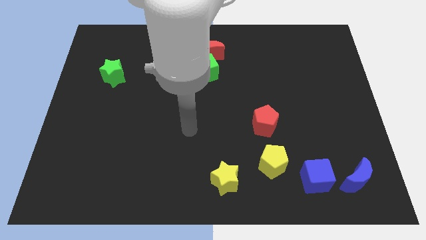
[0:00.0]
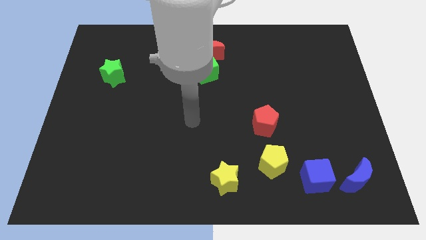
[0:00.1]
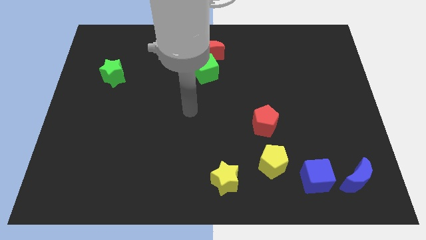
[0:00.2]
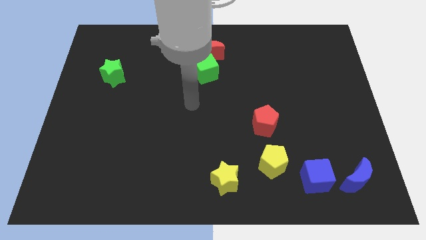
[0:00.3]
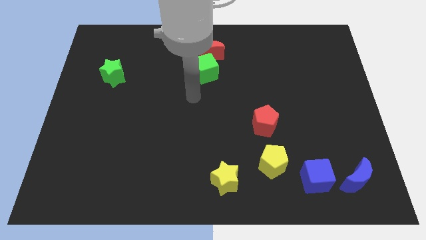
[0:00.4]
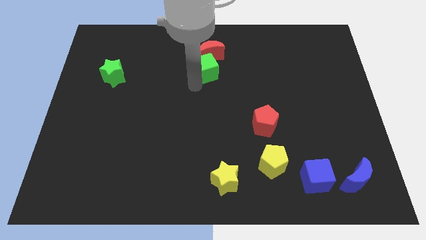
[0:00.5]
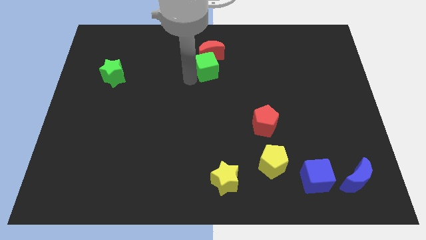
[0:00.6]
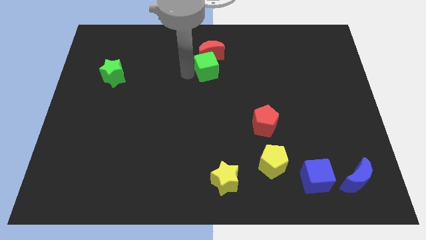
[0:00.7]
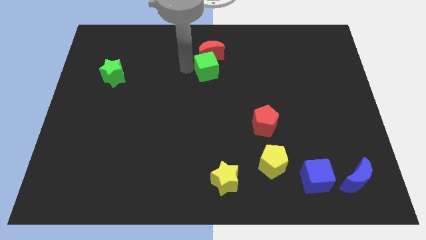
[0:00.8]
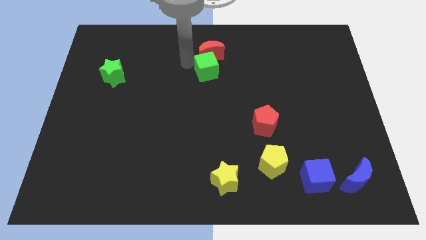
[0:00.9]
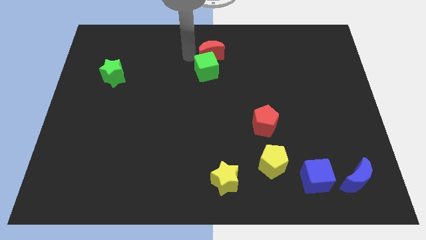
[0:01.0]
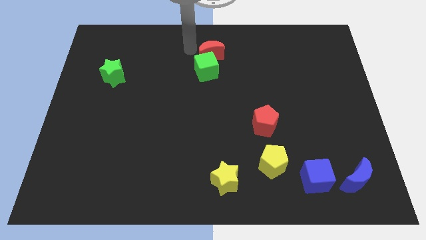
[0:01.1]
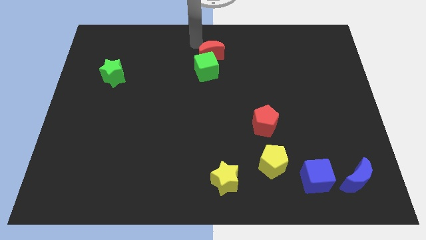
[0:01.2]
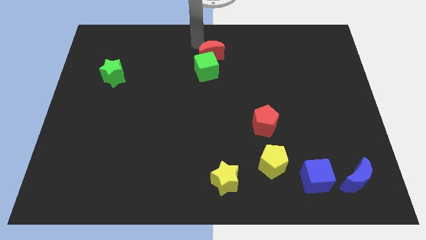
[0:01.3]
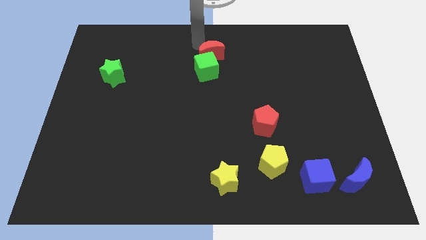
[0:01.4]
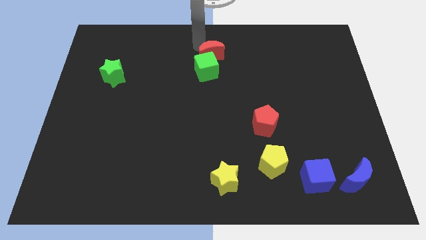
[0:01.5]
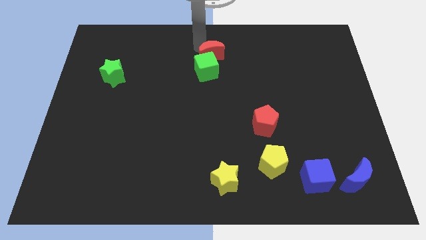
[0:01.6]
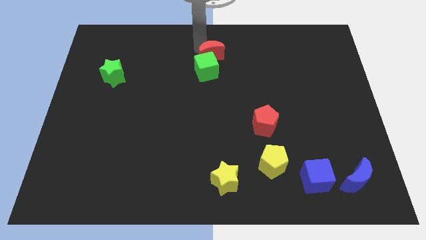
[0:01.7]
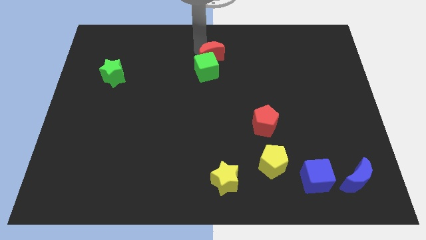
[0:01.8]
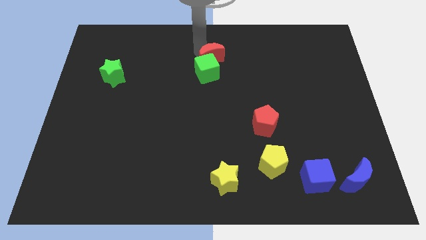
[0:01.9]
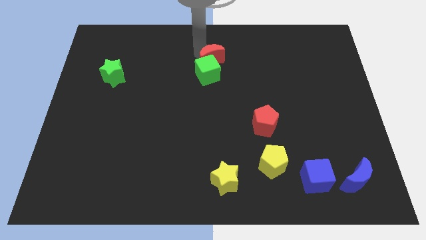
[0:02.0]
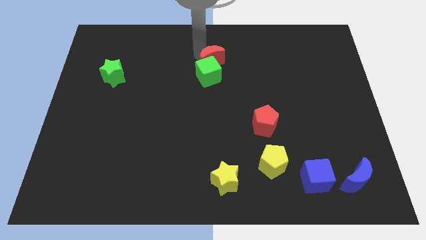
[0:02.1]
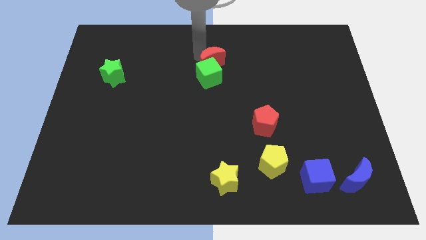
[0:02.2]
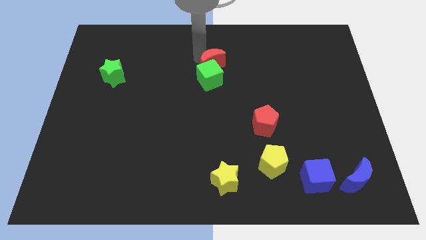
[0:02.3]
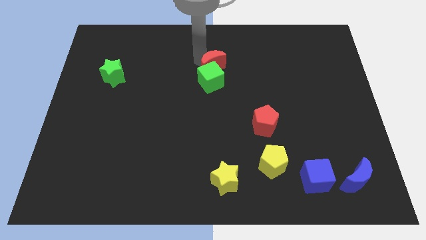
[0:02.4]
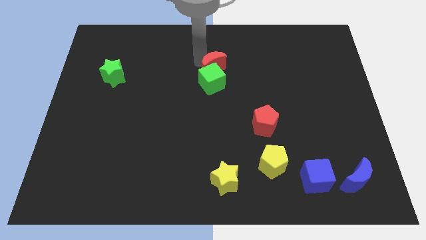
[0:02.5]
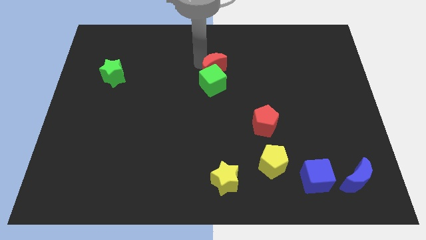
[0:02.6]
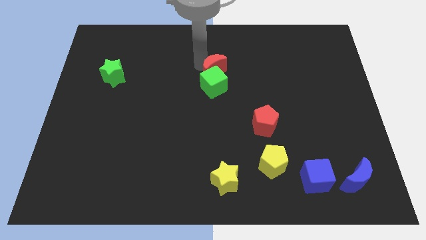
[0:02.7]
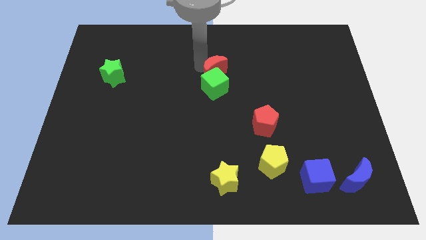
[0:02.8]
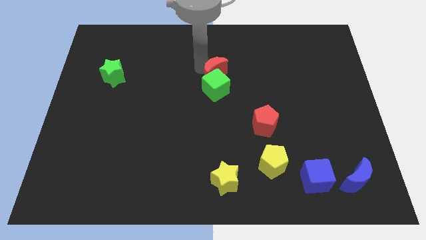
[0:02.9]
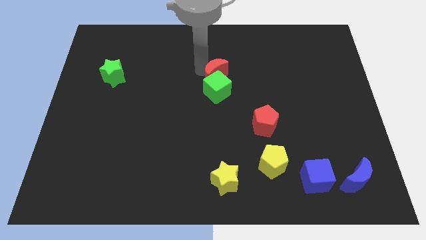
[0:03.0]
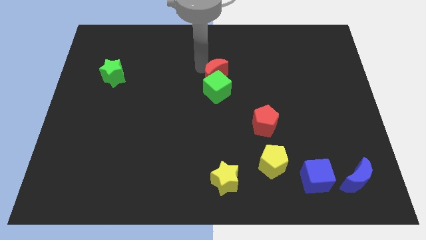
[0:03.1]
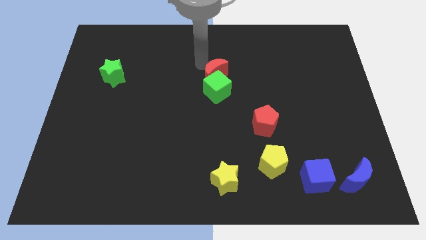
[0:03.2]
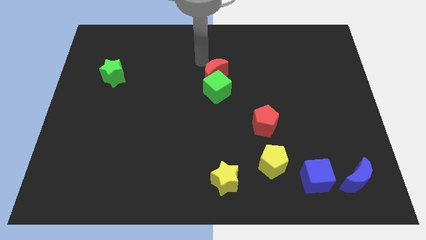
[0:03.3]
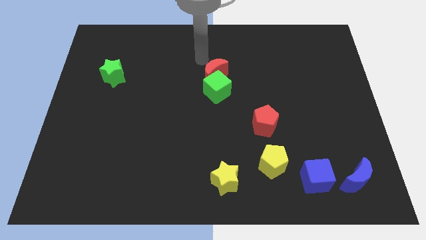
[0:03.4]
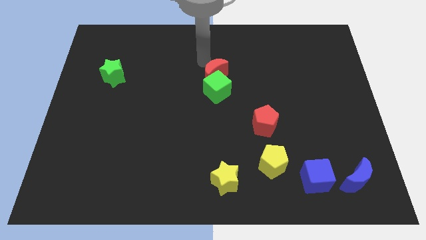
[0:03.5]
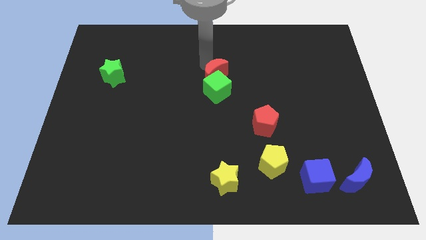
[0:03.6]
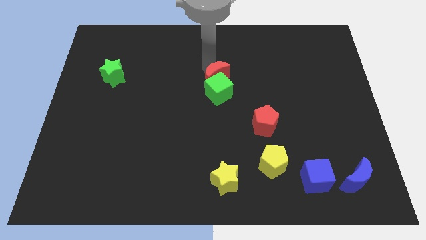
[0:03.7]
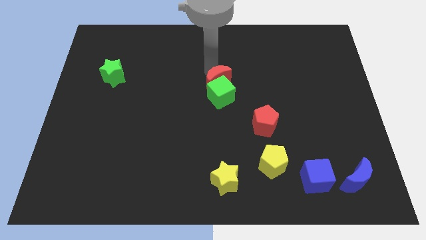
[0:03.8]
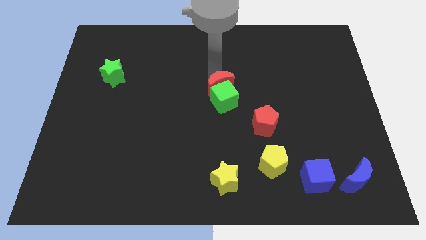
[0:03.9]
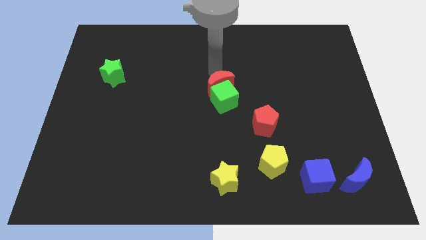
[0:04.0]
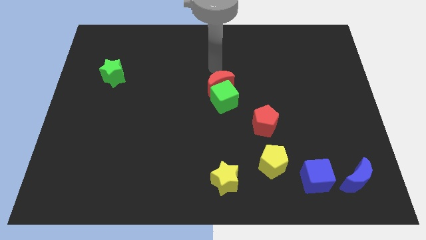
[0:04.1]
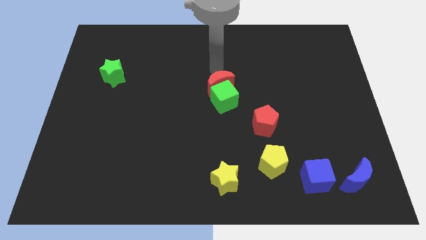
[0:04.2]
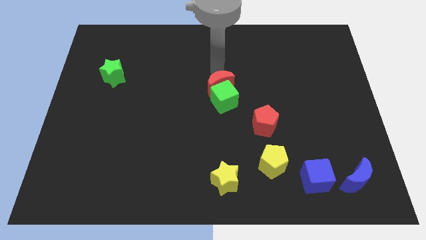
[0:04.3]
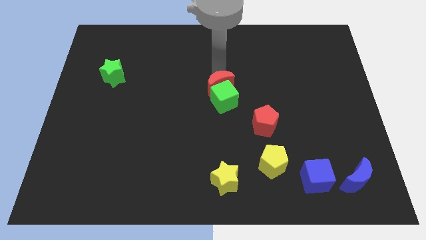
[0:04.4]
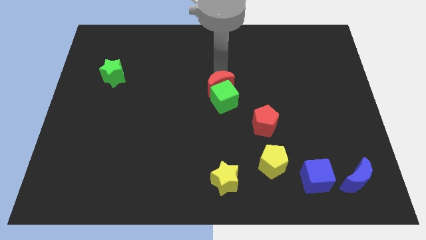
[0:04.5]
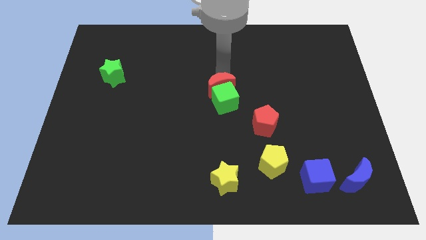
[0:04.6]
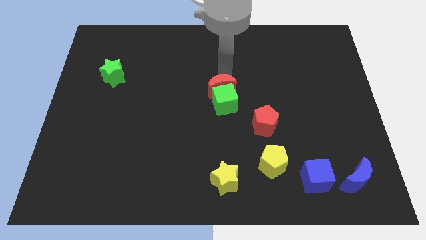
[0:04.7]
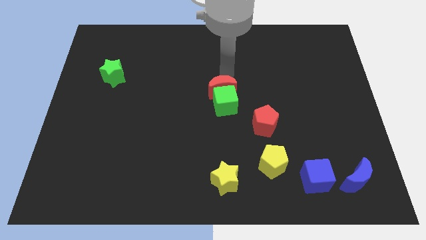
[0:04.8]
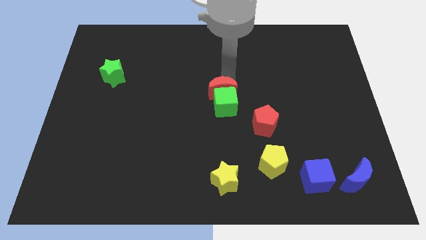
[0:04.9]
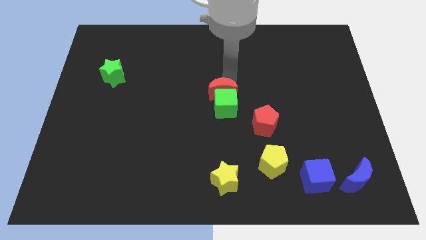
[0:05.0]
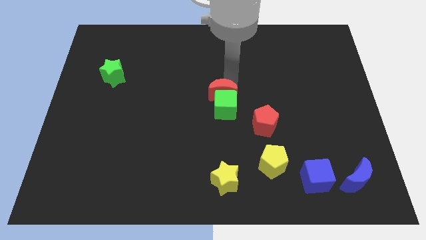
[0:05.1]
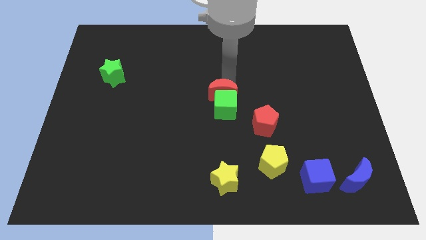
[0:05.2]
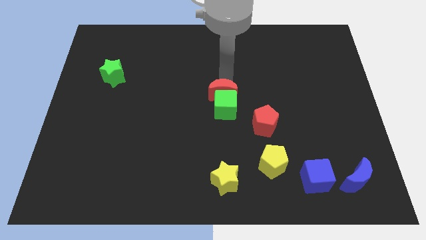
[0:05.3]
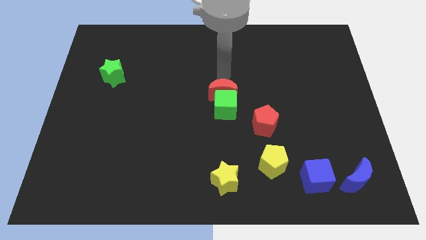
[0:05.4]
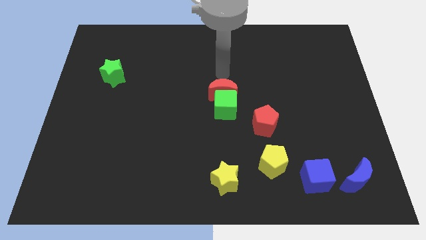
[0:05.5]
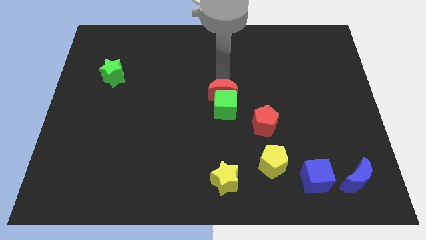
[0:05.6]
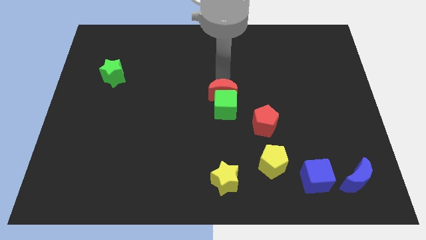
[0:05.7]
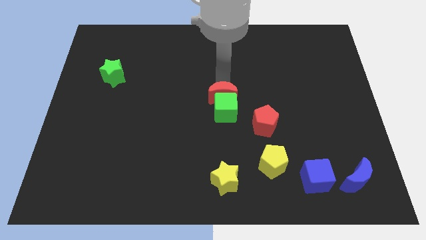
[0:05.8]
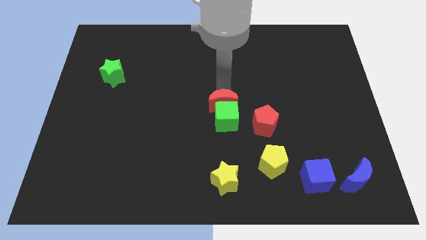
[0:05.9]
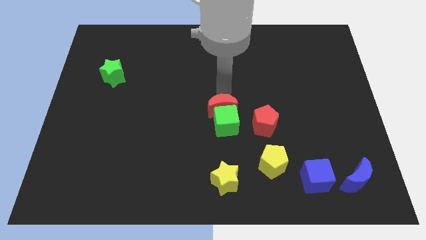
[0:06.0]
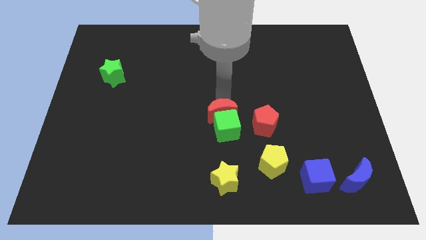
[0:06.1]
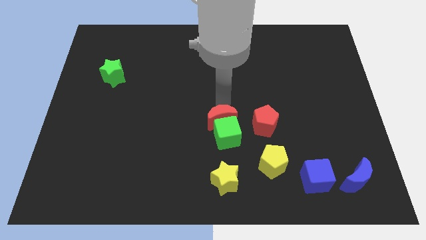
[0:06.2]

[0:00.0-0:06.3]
push the red moon downwards

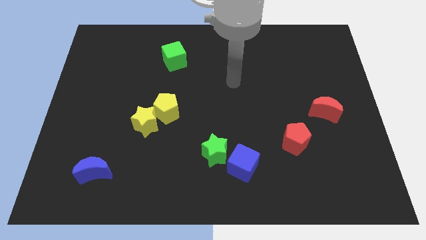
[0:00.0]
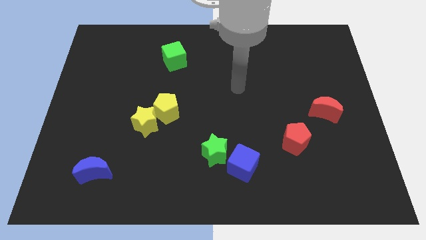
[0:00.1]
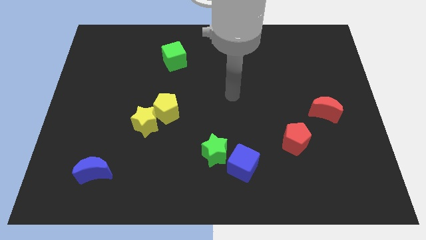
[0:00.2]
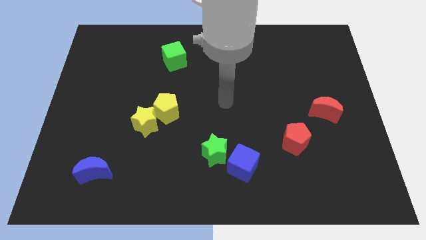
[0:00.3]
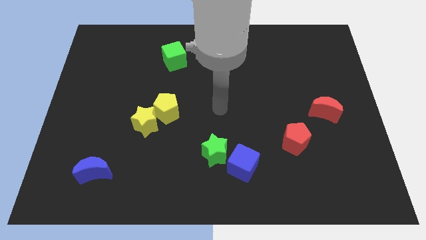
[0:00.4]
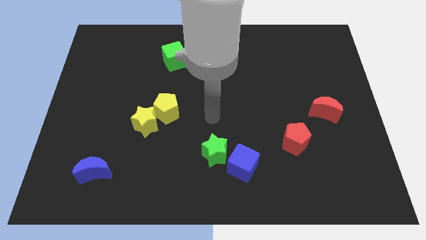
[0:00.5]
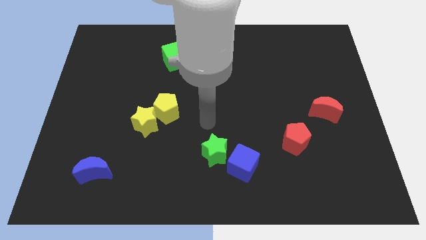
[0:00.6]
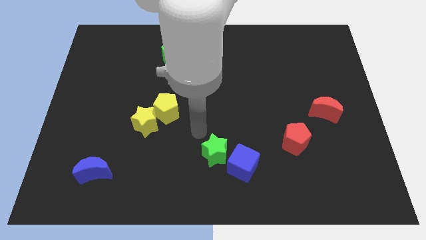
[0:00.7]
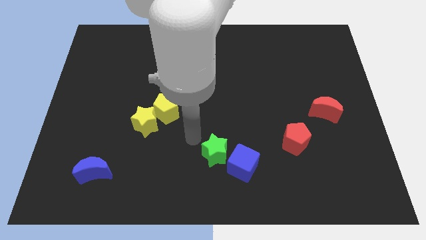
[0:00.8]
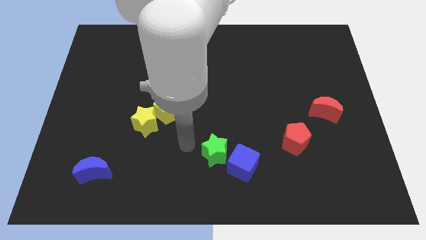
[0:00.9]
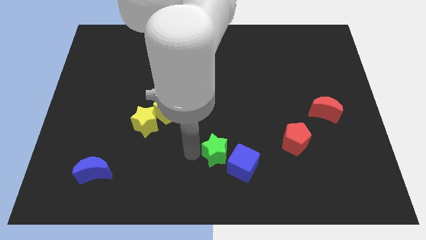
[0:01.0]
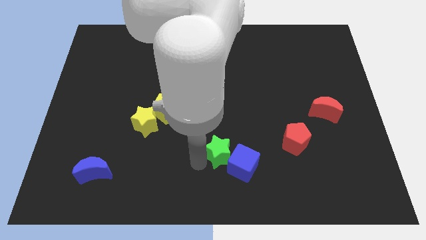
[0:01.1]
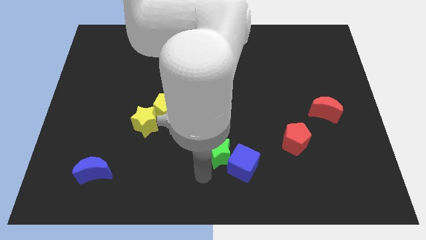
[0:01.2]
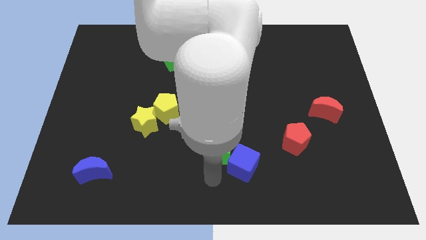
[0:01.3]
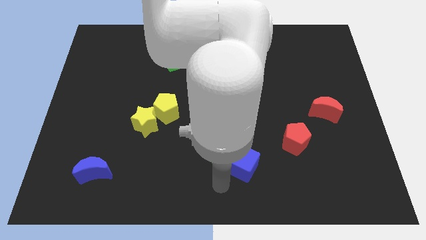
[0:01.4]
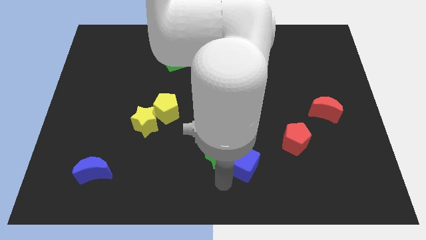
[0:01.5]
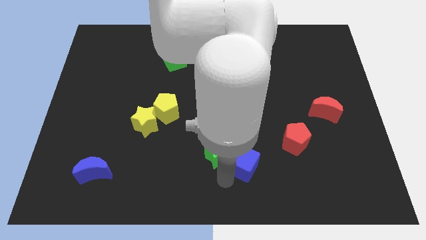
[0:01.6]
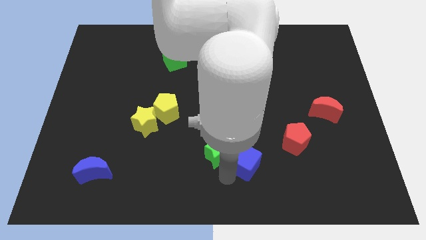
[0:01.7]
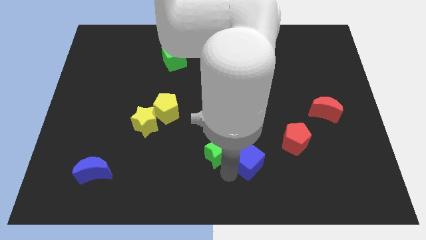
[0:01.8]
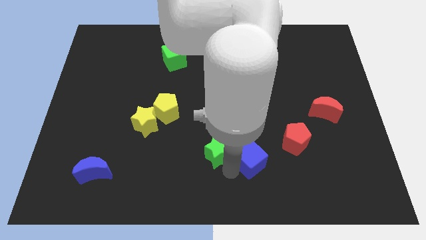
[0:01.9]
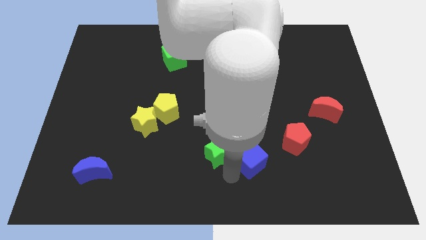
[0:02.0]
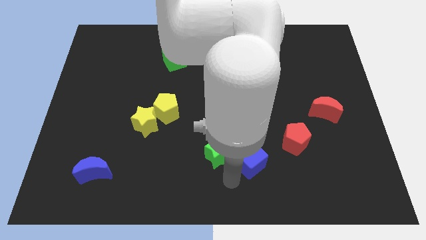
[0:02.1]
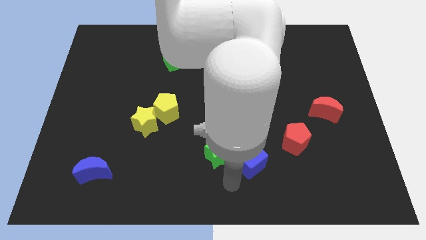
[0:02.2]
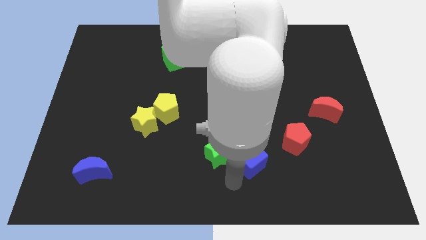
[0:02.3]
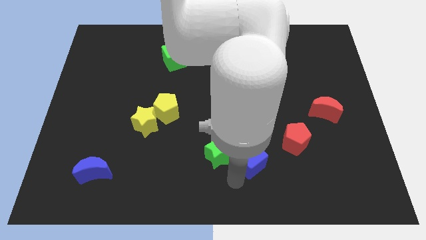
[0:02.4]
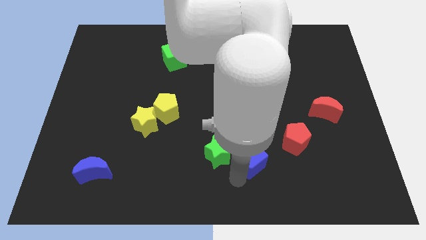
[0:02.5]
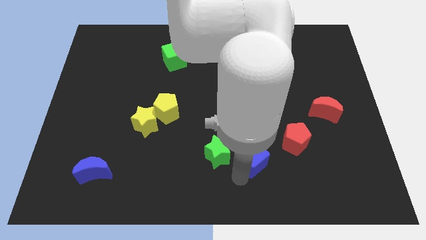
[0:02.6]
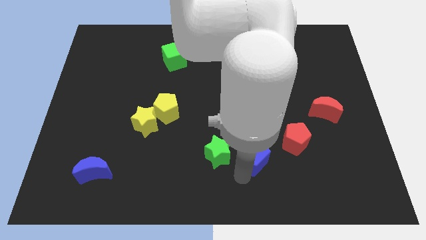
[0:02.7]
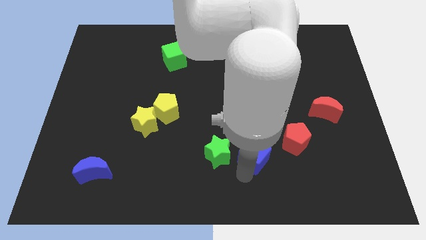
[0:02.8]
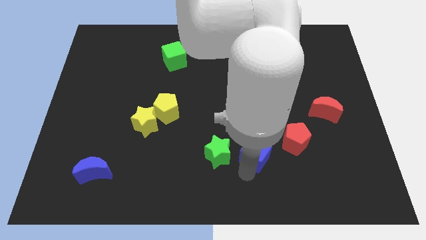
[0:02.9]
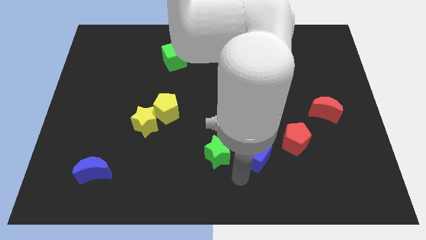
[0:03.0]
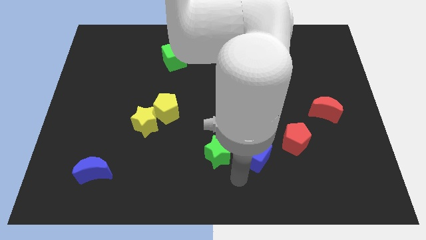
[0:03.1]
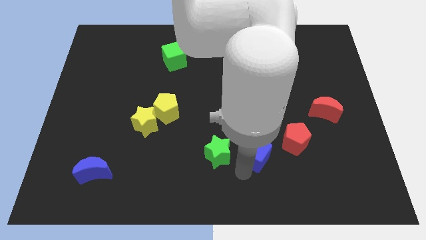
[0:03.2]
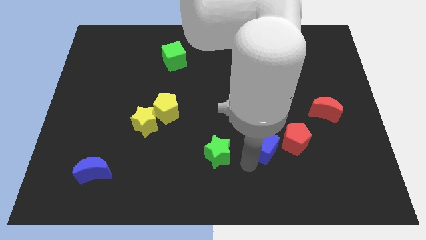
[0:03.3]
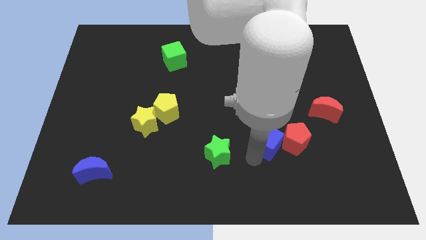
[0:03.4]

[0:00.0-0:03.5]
slightly slide the blue cube up and to the right
